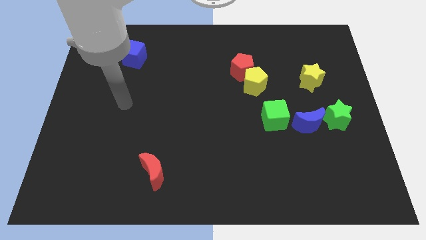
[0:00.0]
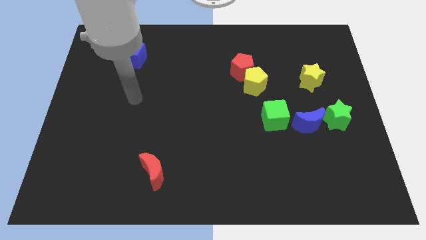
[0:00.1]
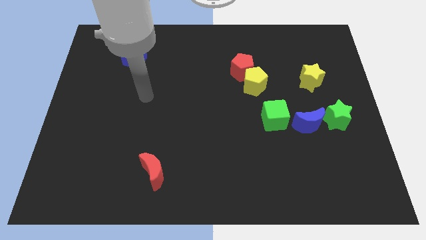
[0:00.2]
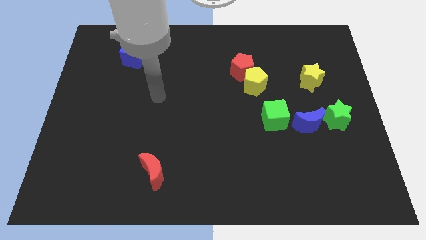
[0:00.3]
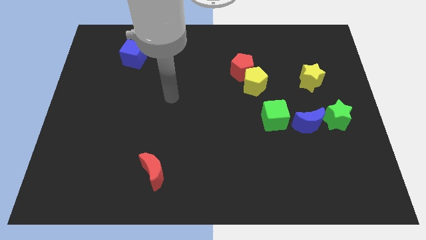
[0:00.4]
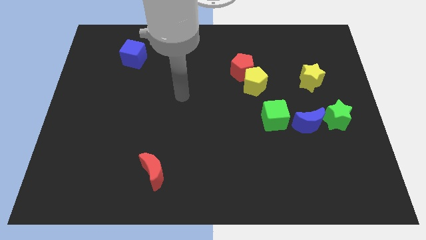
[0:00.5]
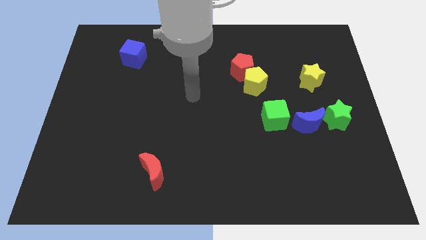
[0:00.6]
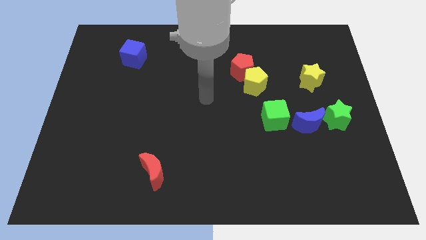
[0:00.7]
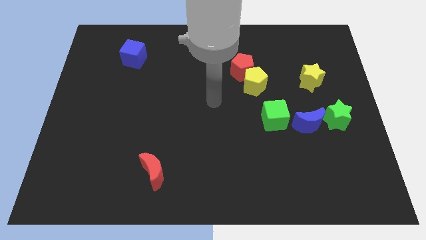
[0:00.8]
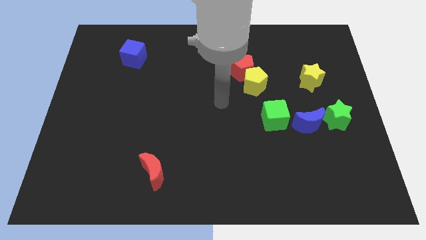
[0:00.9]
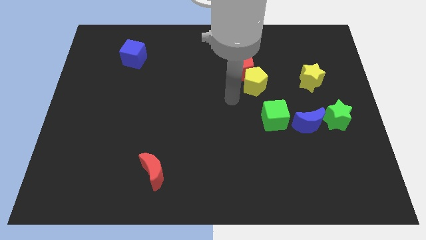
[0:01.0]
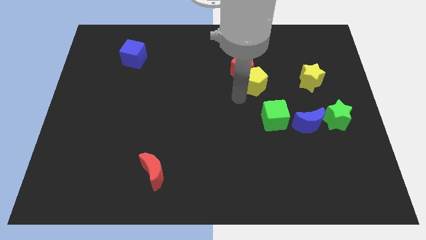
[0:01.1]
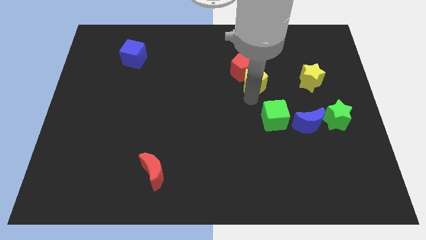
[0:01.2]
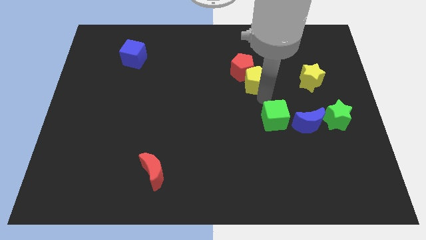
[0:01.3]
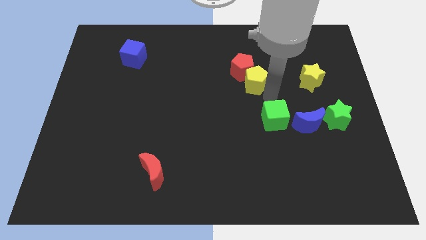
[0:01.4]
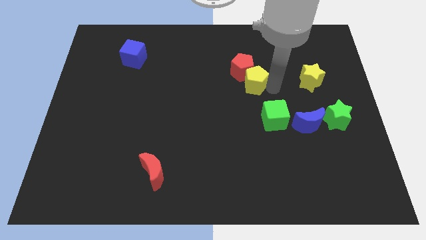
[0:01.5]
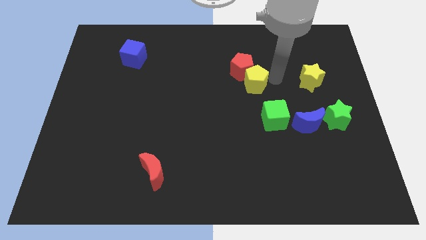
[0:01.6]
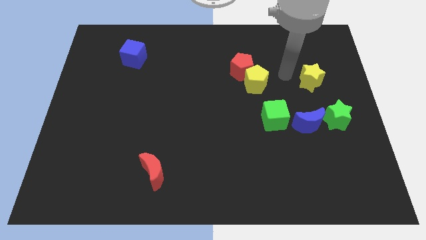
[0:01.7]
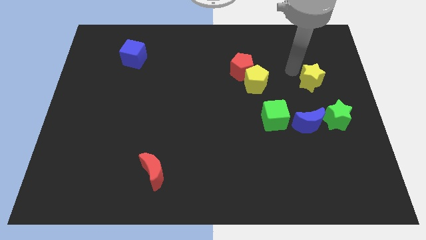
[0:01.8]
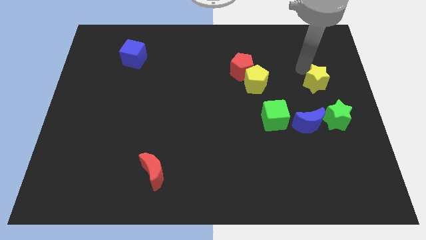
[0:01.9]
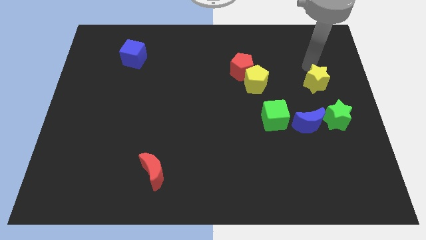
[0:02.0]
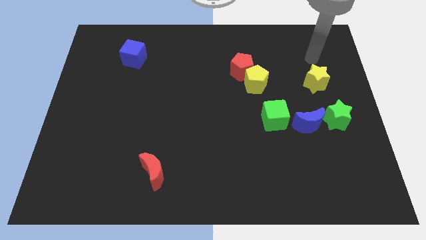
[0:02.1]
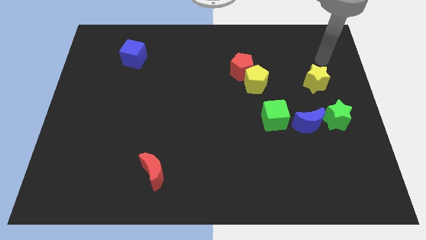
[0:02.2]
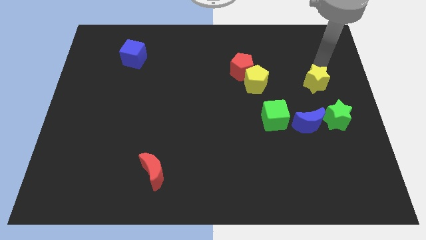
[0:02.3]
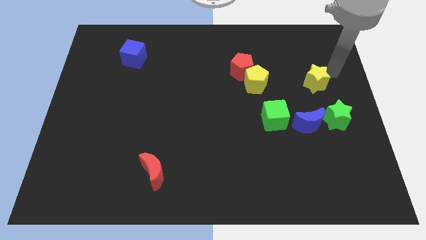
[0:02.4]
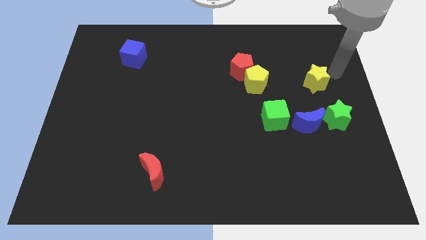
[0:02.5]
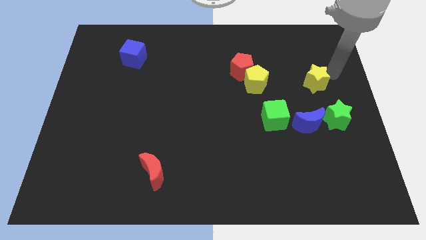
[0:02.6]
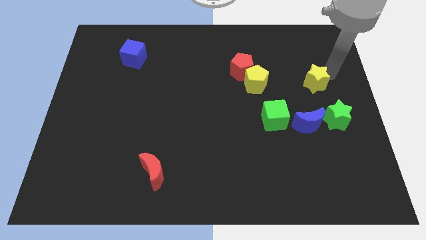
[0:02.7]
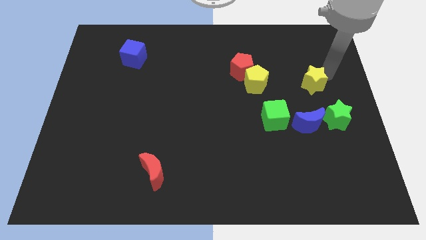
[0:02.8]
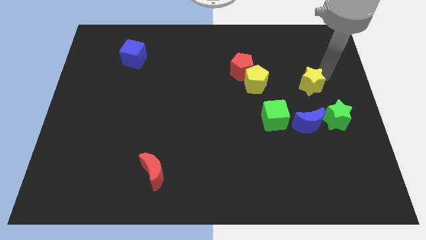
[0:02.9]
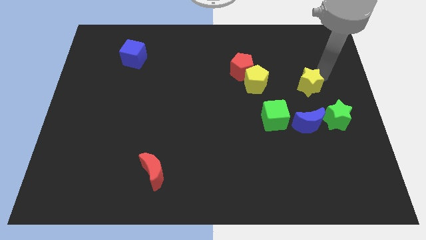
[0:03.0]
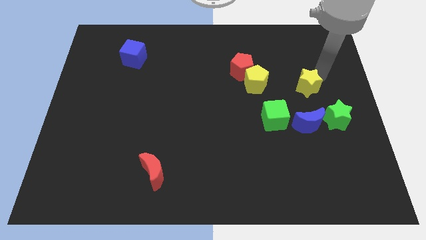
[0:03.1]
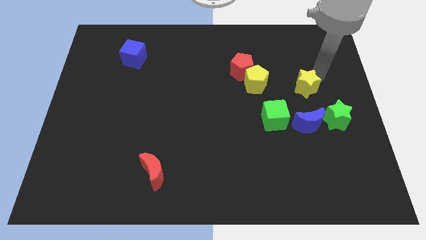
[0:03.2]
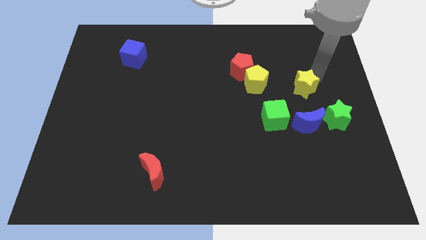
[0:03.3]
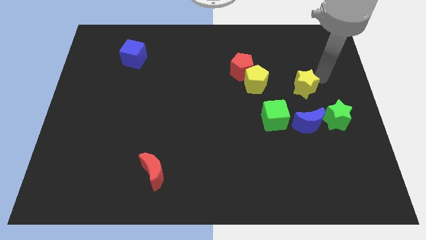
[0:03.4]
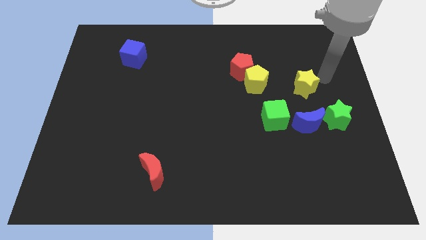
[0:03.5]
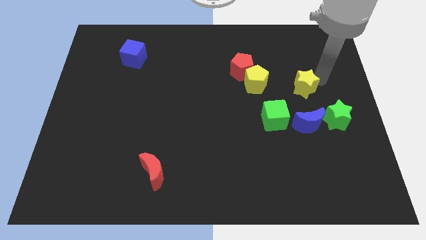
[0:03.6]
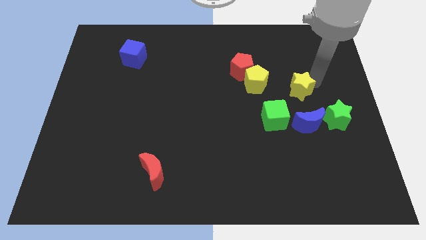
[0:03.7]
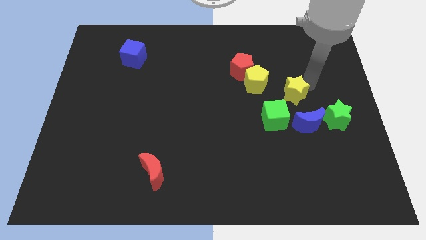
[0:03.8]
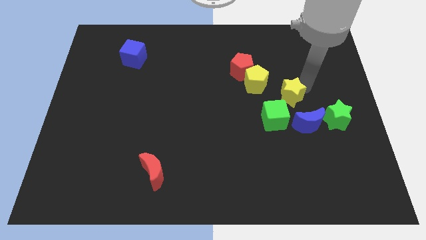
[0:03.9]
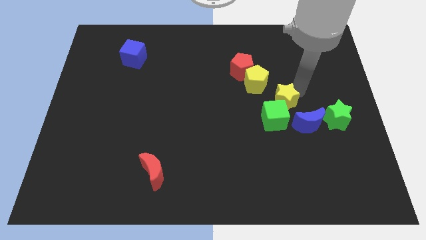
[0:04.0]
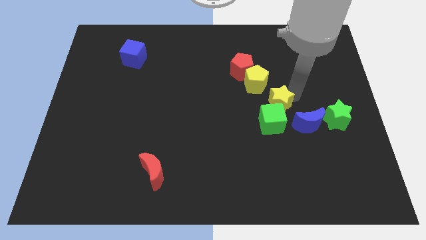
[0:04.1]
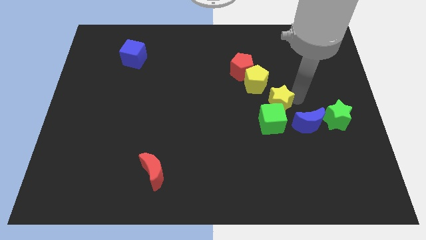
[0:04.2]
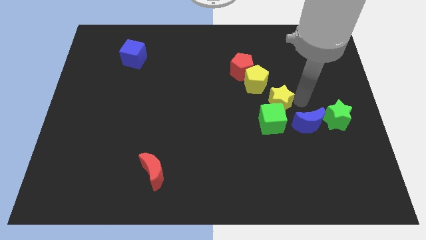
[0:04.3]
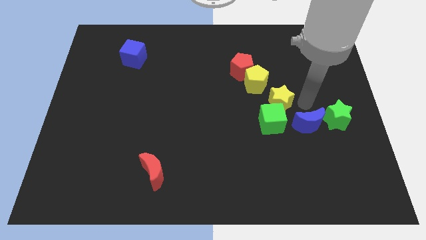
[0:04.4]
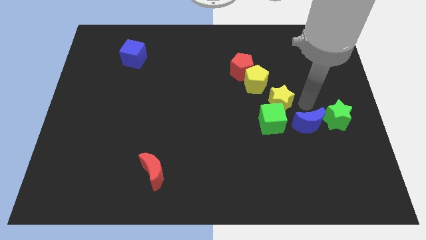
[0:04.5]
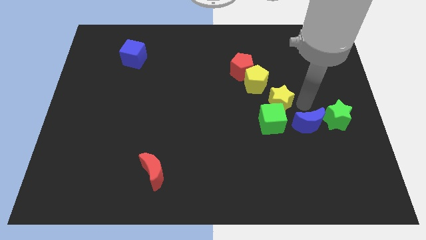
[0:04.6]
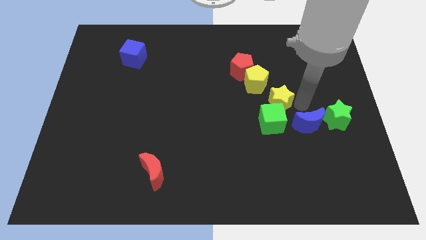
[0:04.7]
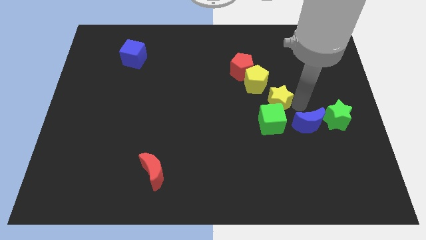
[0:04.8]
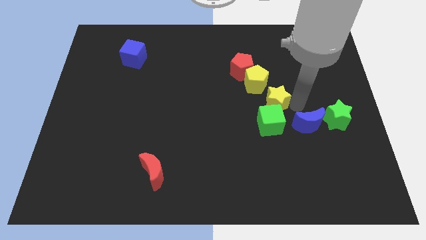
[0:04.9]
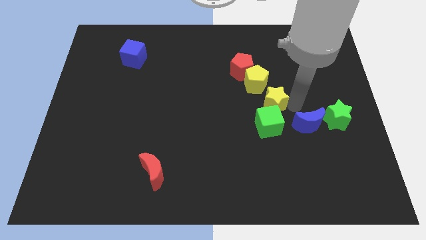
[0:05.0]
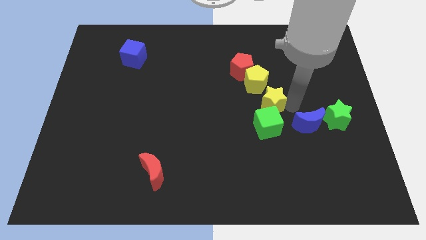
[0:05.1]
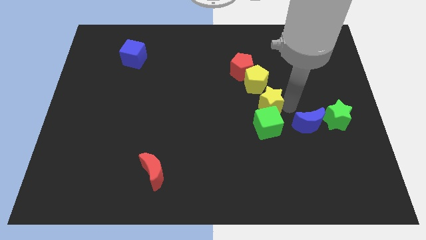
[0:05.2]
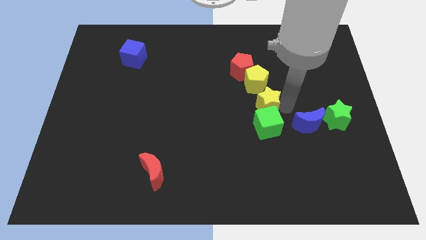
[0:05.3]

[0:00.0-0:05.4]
put the yellow star to the center
